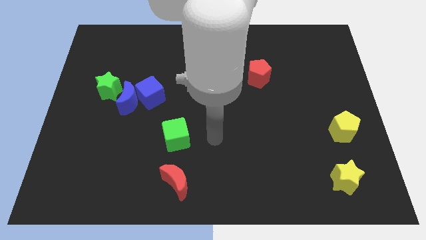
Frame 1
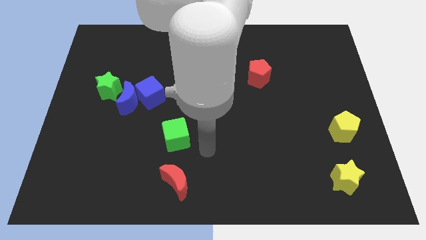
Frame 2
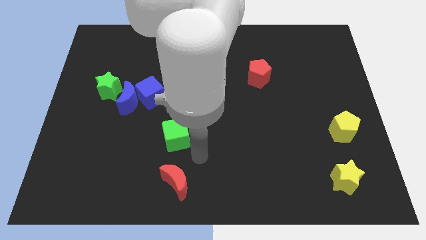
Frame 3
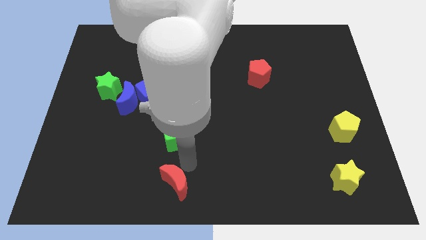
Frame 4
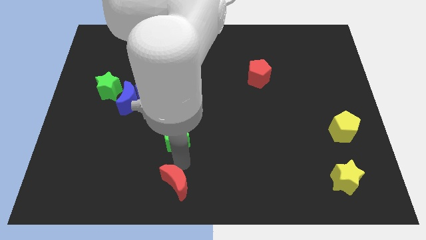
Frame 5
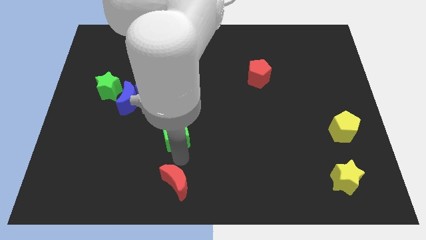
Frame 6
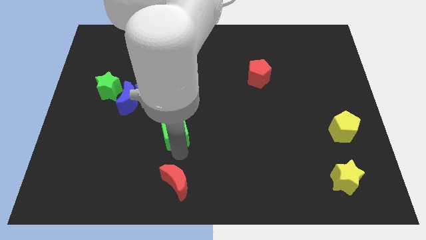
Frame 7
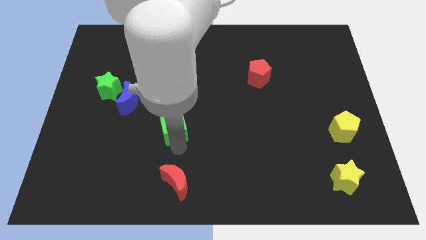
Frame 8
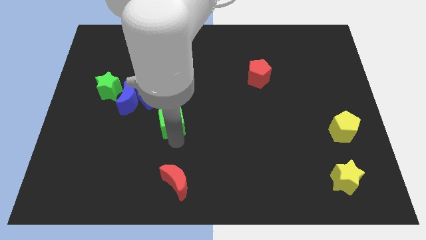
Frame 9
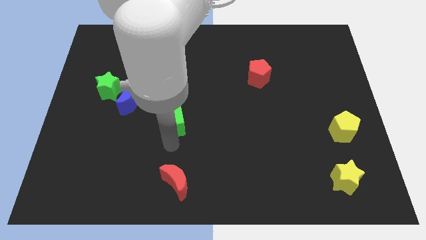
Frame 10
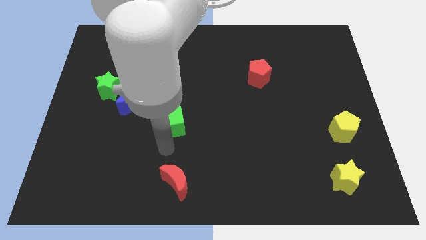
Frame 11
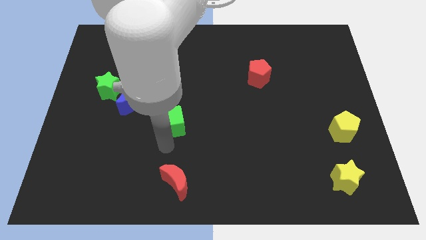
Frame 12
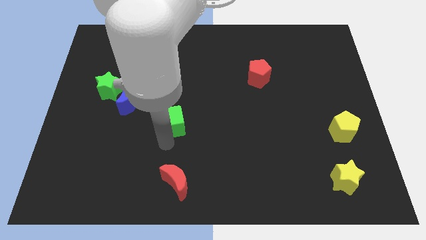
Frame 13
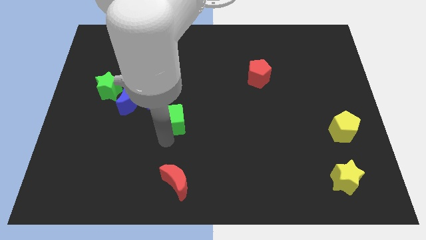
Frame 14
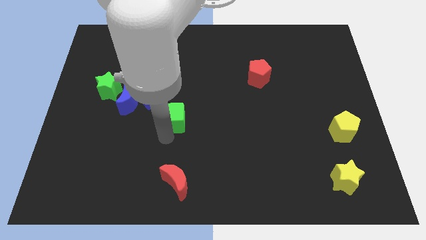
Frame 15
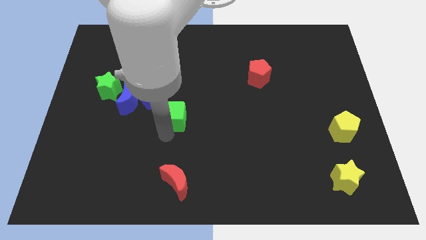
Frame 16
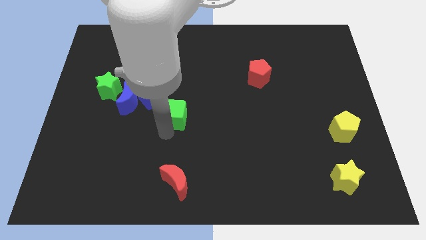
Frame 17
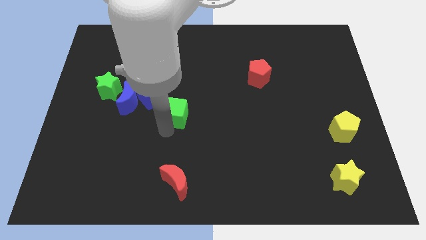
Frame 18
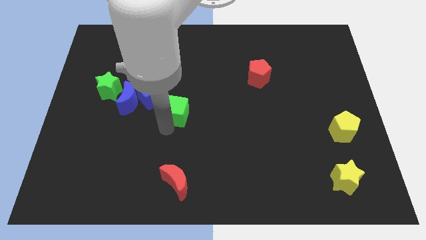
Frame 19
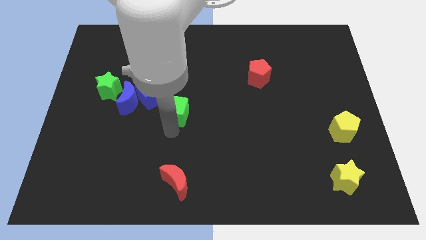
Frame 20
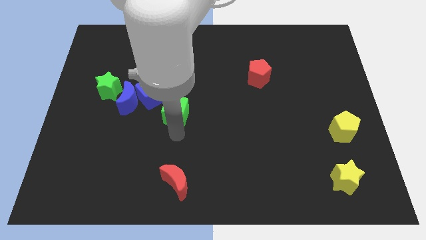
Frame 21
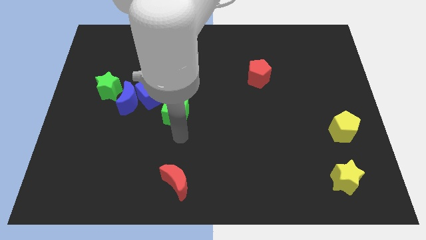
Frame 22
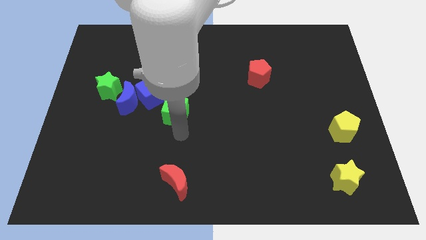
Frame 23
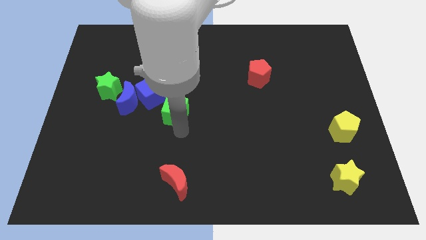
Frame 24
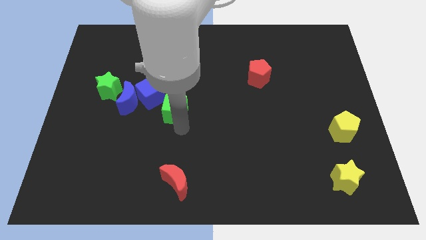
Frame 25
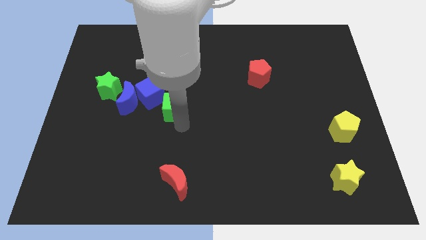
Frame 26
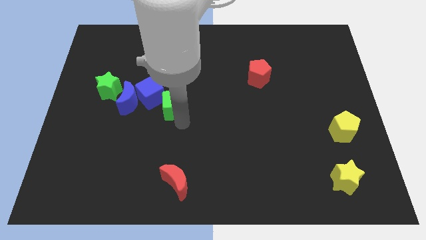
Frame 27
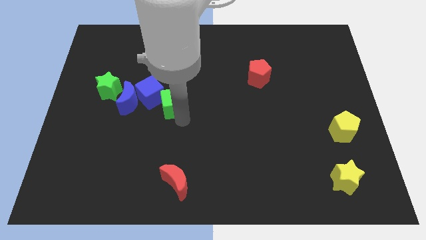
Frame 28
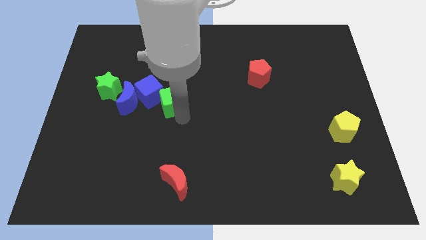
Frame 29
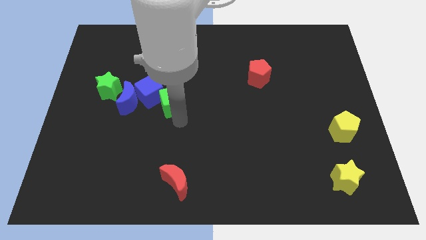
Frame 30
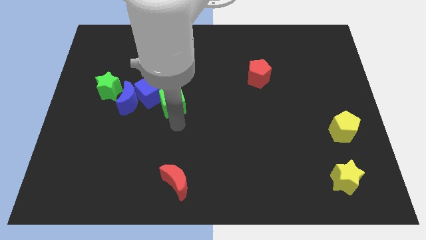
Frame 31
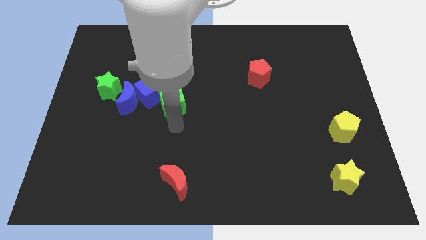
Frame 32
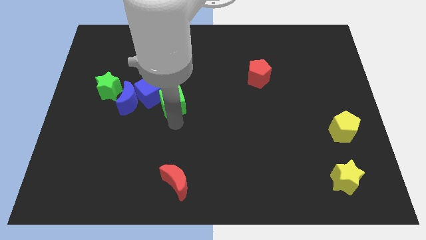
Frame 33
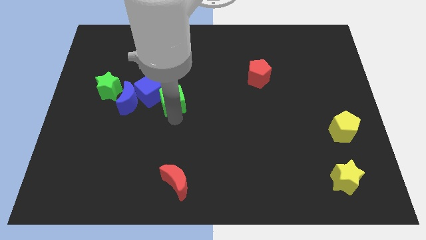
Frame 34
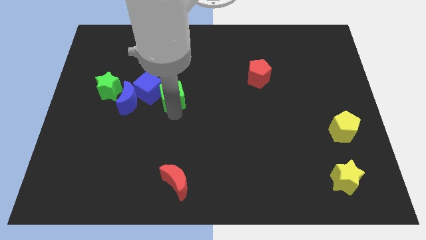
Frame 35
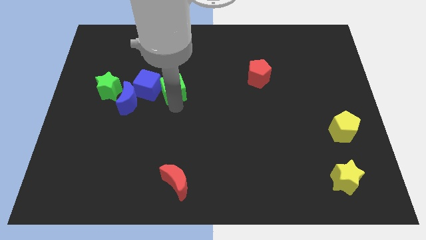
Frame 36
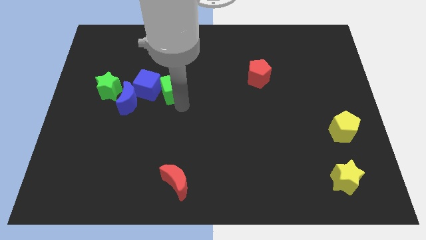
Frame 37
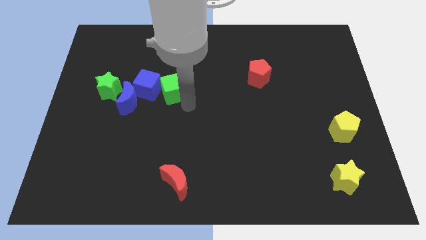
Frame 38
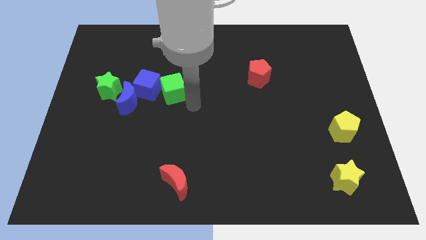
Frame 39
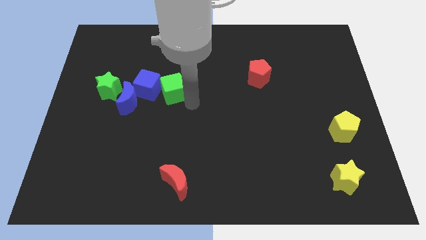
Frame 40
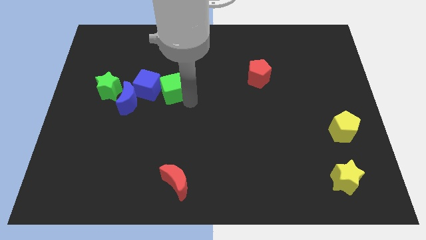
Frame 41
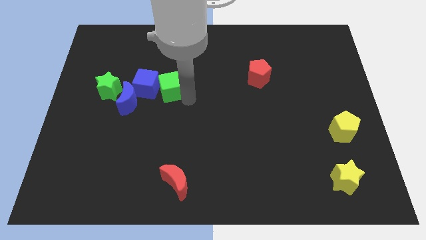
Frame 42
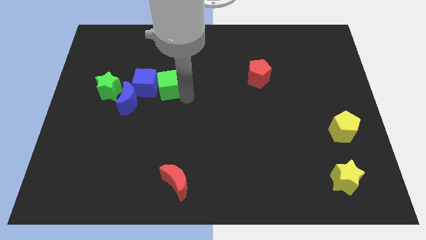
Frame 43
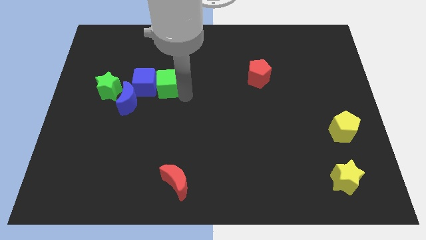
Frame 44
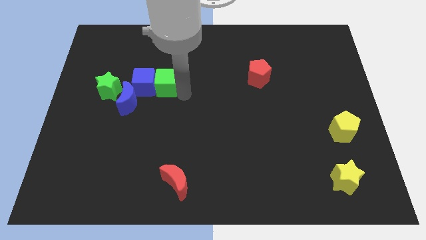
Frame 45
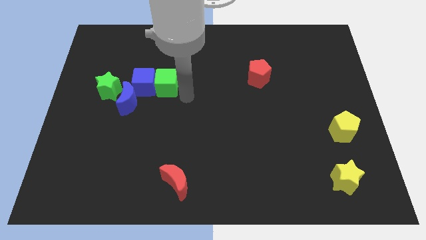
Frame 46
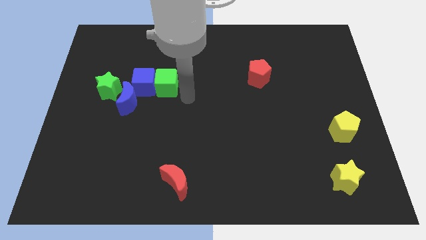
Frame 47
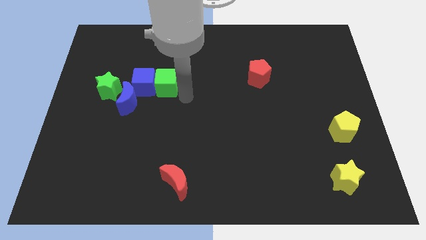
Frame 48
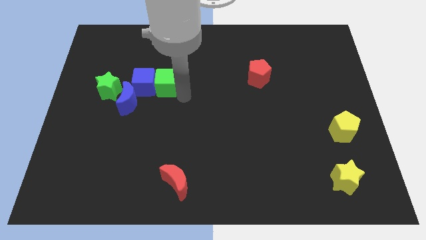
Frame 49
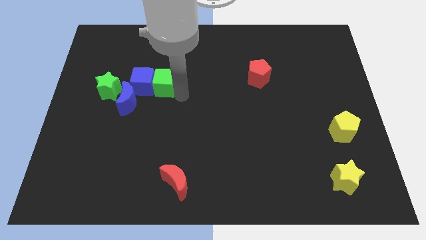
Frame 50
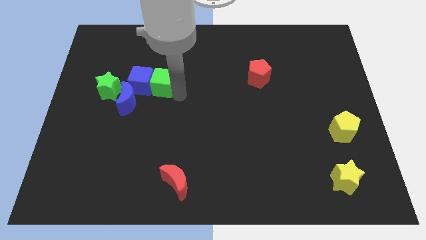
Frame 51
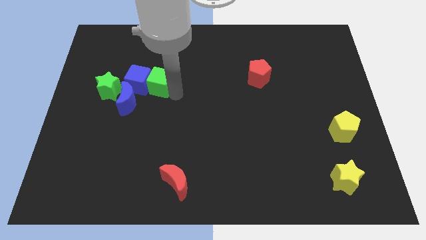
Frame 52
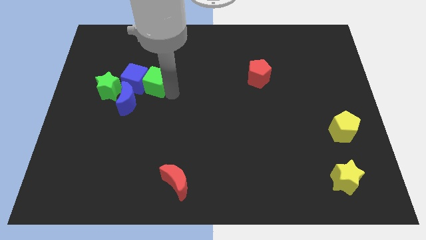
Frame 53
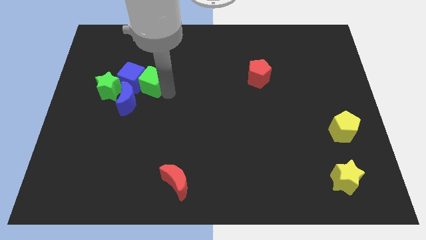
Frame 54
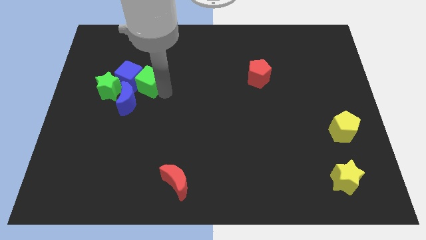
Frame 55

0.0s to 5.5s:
put the green cube to the top side of the blue moon
